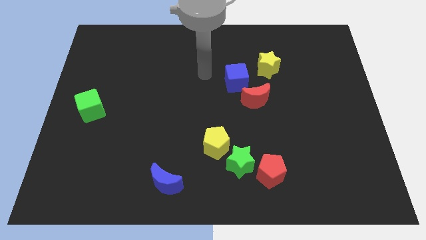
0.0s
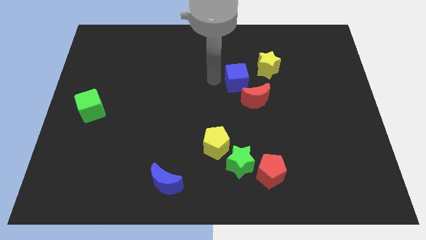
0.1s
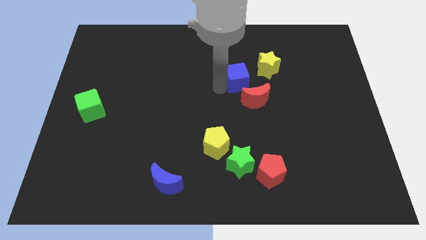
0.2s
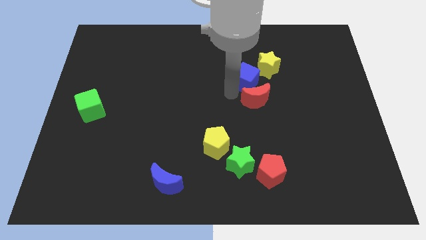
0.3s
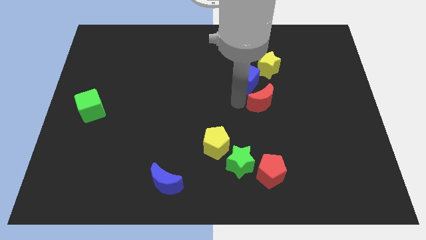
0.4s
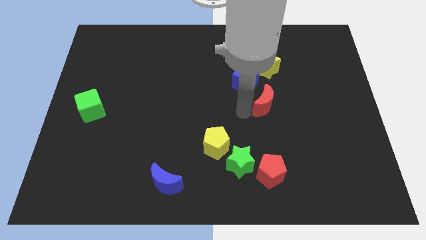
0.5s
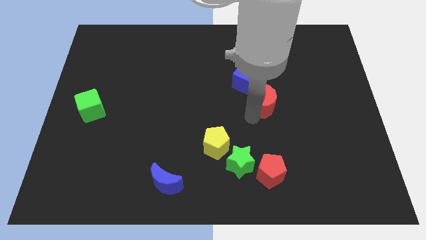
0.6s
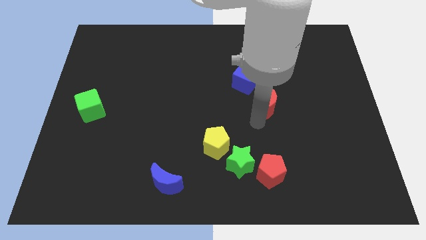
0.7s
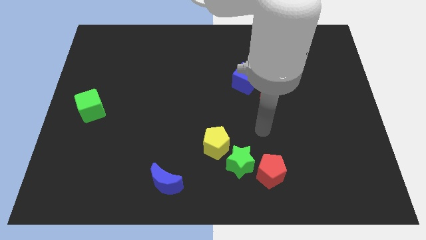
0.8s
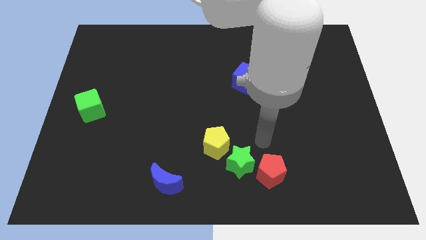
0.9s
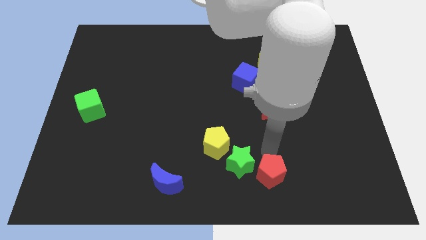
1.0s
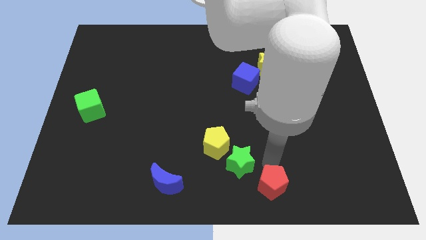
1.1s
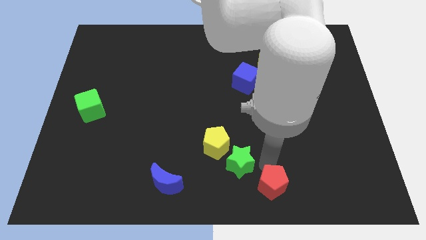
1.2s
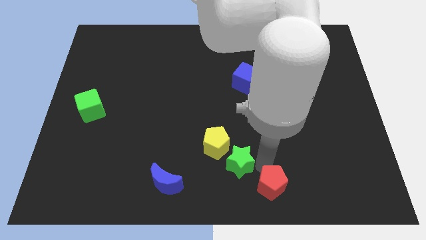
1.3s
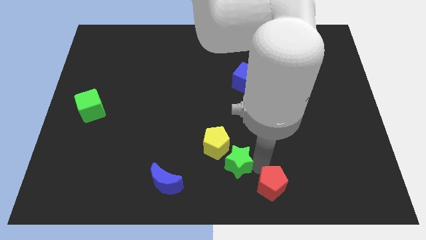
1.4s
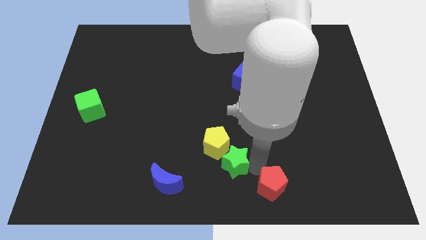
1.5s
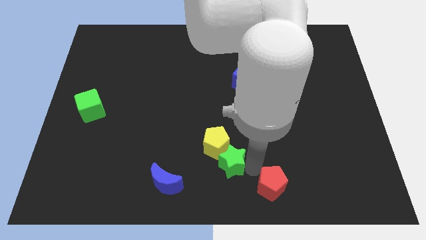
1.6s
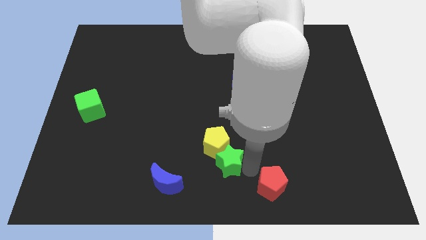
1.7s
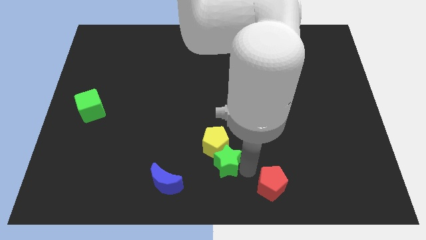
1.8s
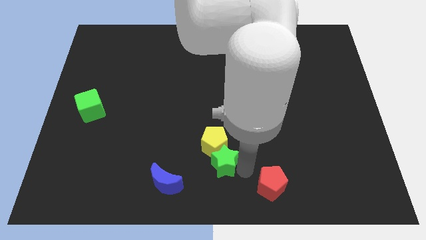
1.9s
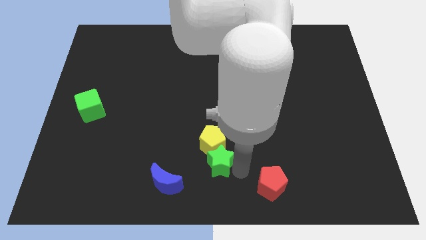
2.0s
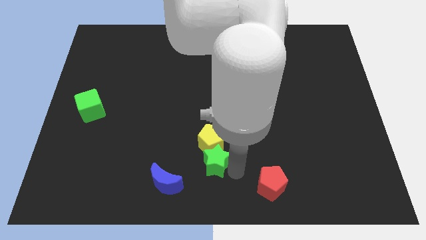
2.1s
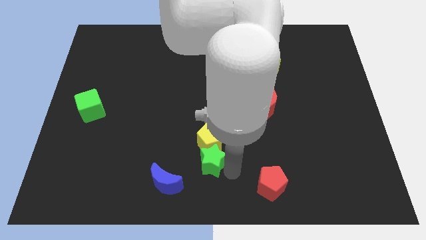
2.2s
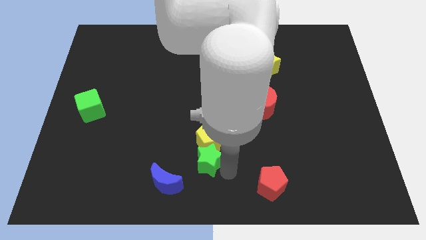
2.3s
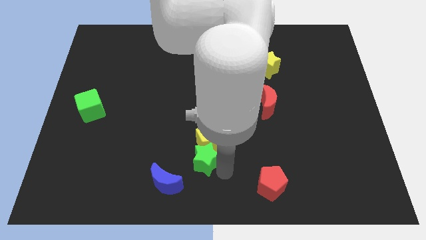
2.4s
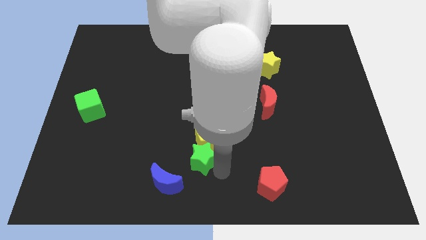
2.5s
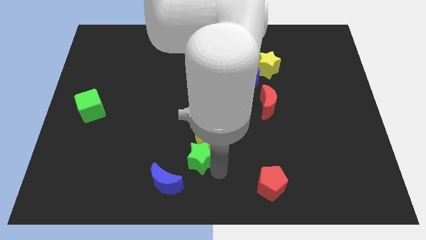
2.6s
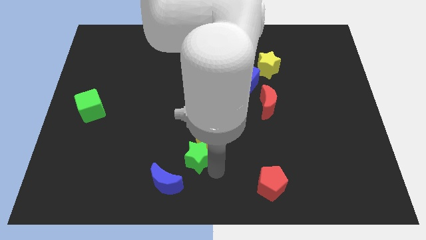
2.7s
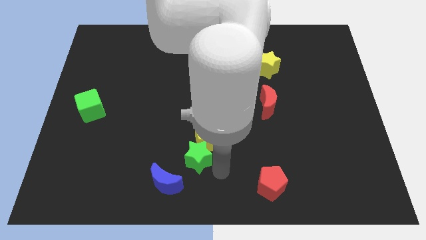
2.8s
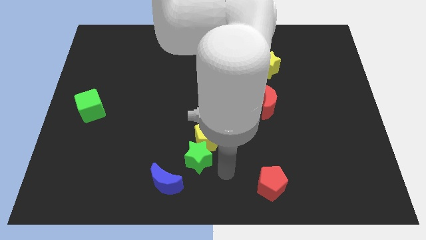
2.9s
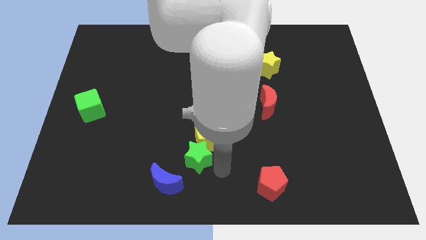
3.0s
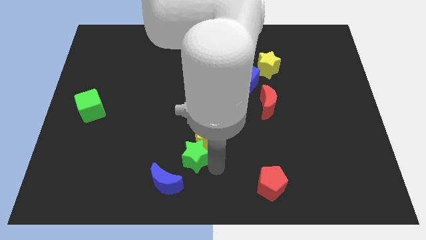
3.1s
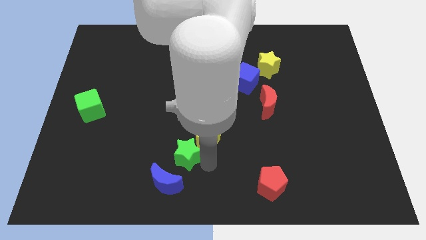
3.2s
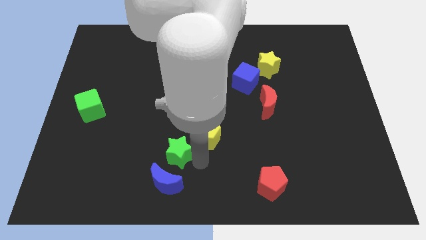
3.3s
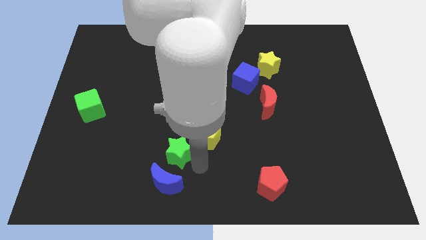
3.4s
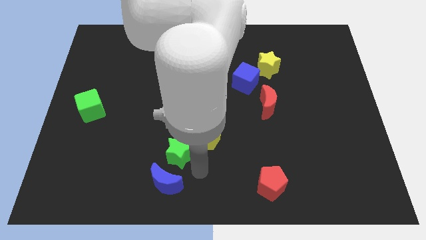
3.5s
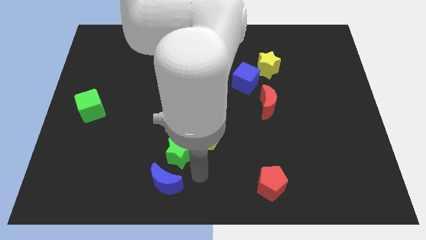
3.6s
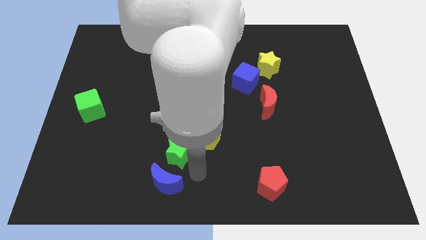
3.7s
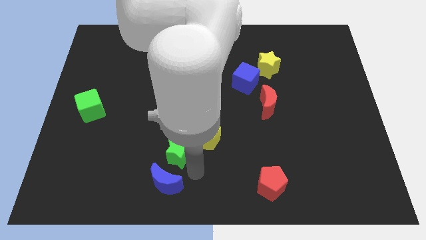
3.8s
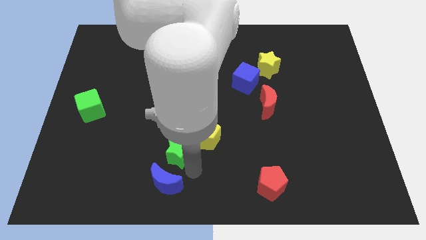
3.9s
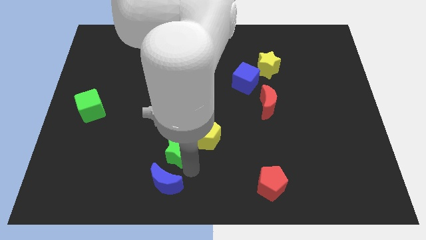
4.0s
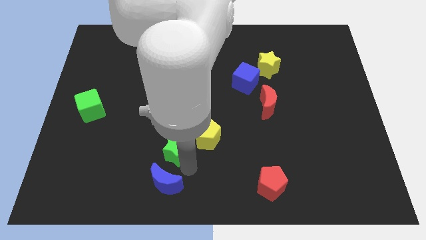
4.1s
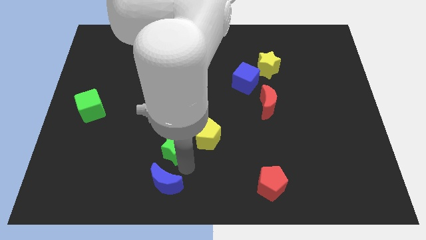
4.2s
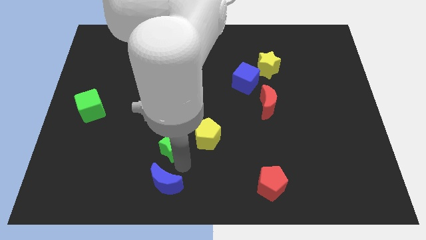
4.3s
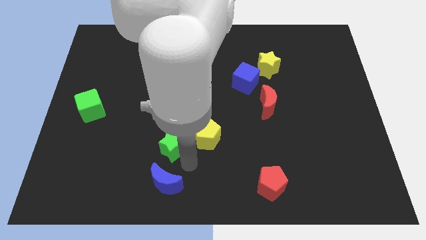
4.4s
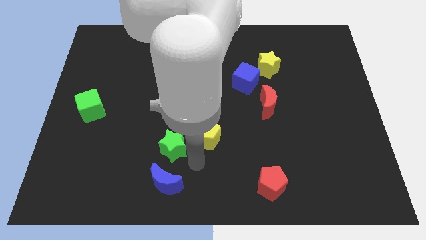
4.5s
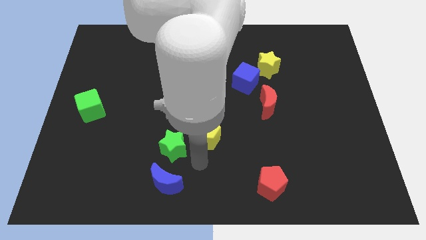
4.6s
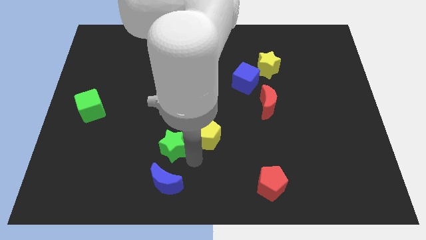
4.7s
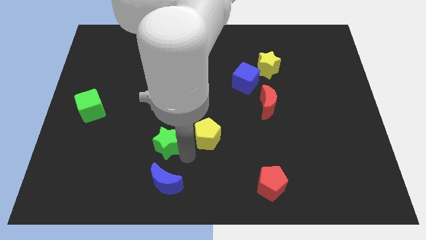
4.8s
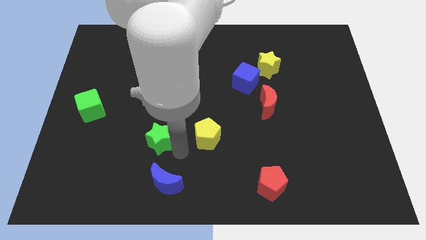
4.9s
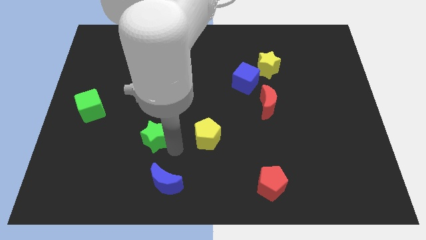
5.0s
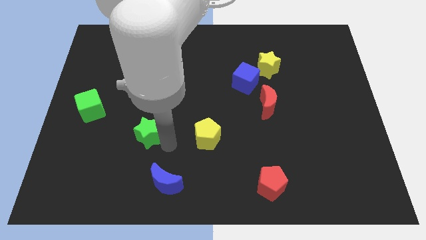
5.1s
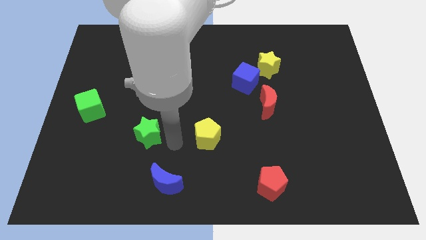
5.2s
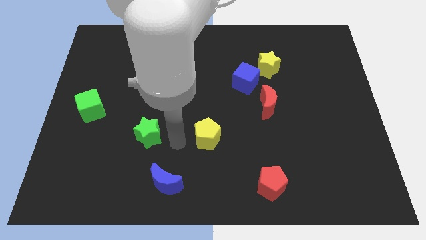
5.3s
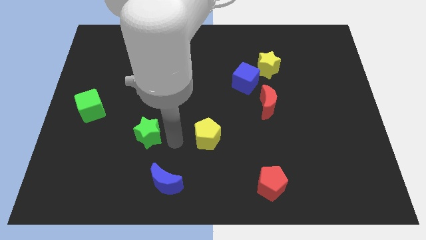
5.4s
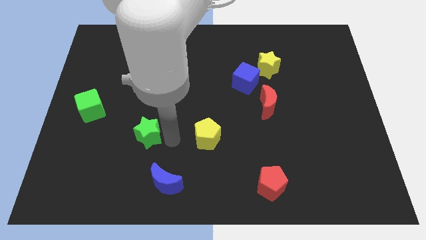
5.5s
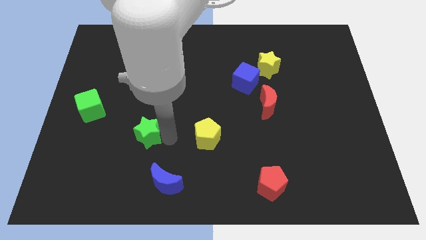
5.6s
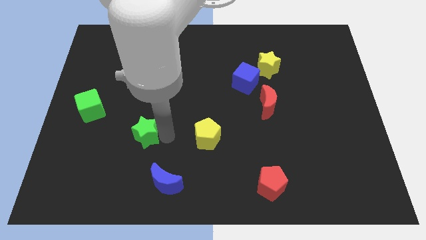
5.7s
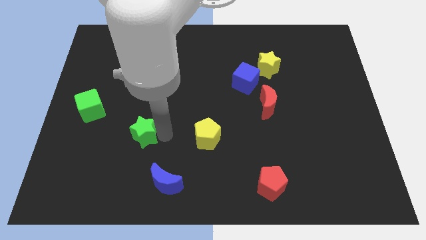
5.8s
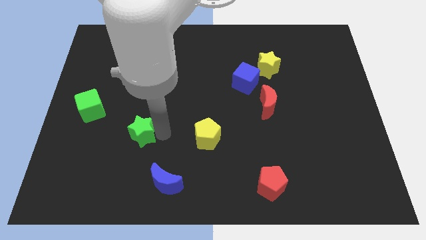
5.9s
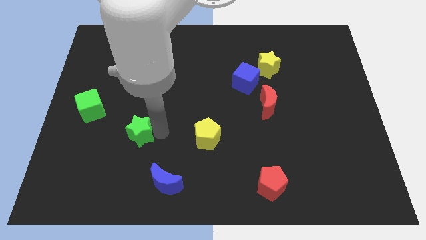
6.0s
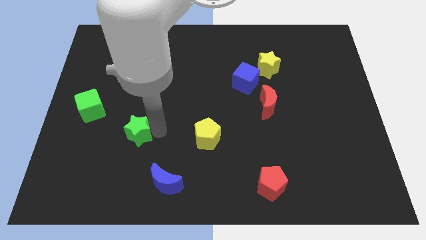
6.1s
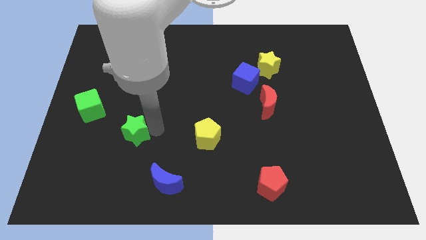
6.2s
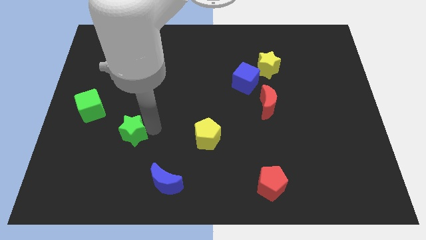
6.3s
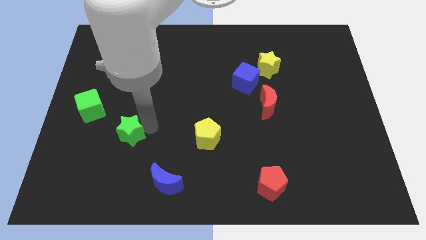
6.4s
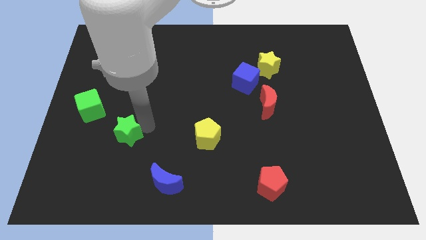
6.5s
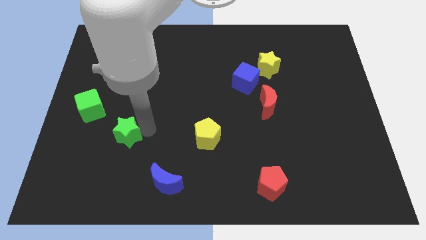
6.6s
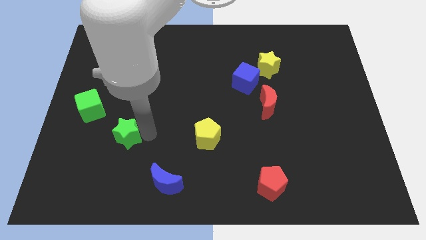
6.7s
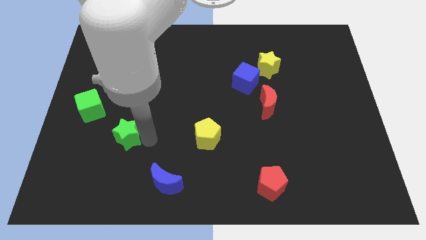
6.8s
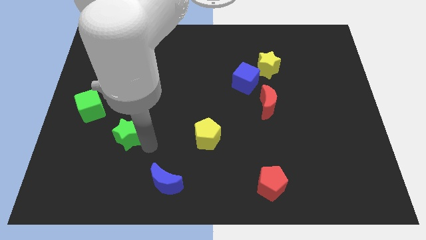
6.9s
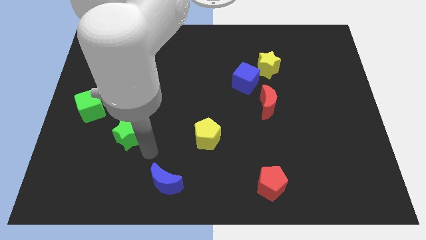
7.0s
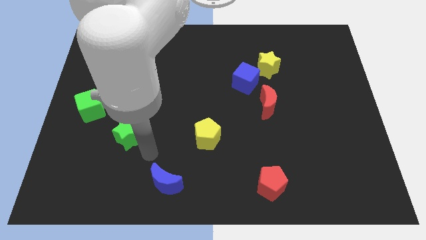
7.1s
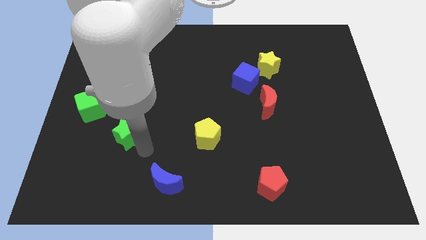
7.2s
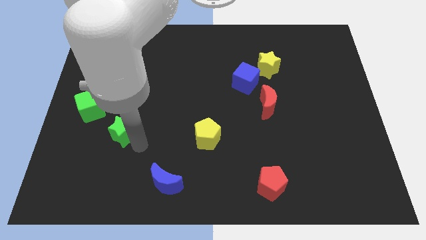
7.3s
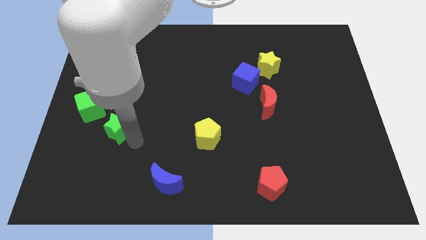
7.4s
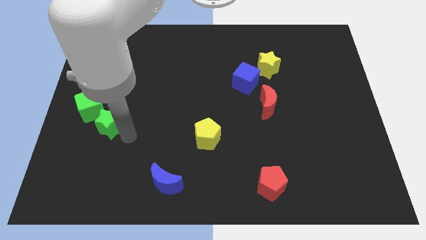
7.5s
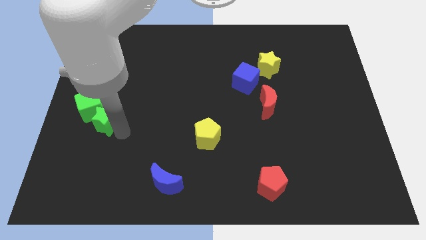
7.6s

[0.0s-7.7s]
put the green star towards the green cube
